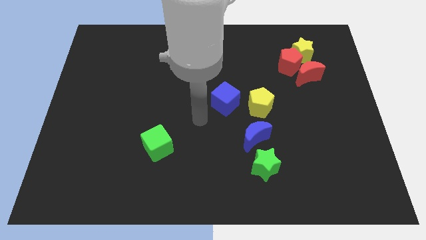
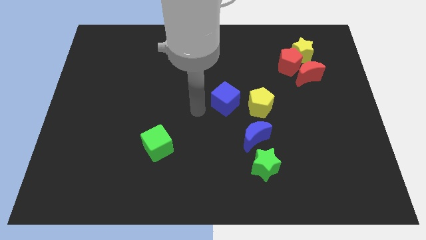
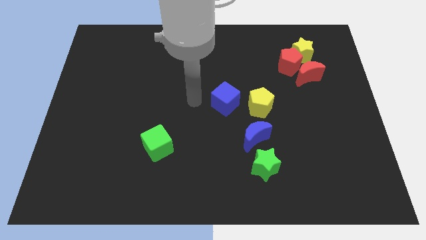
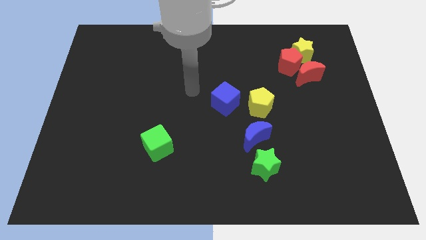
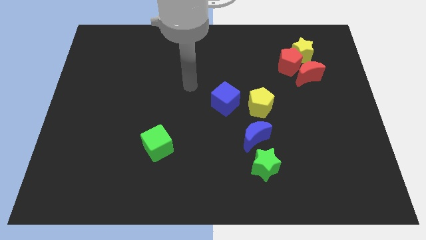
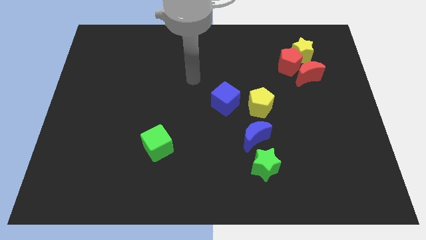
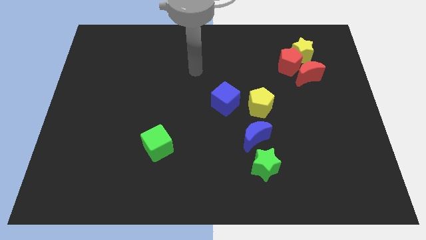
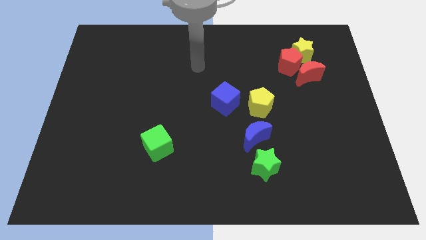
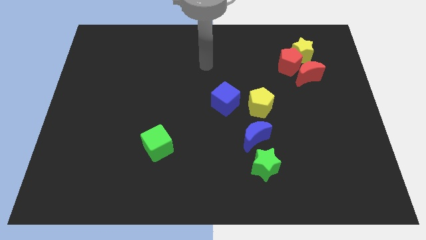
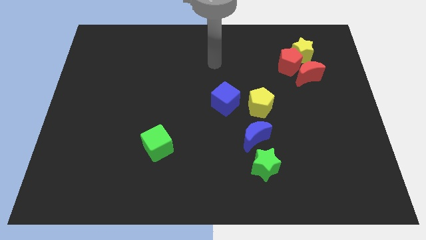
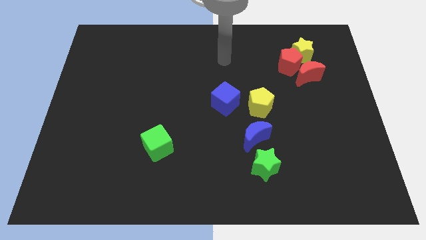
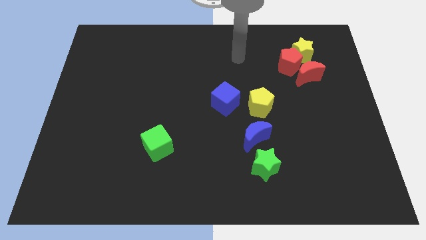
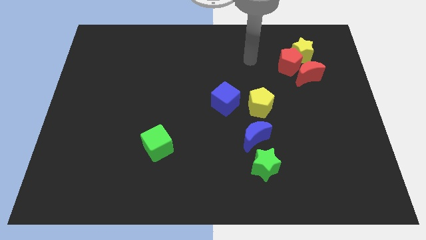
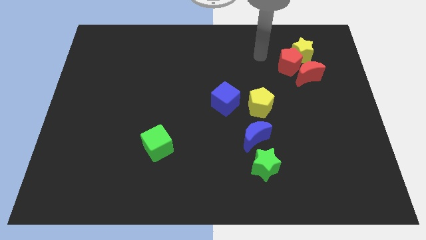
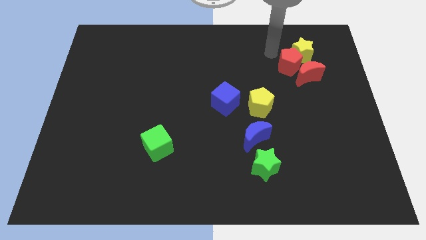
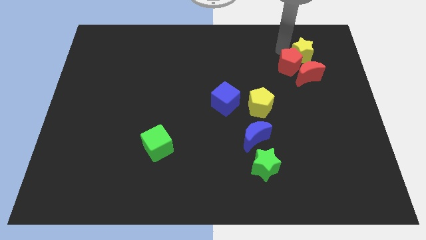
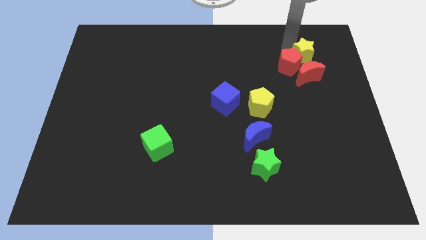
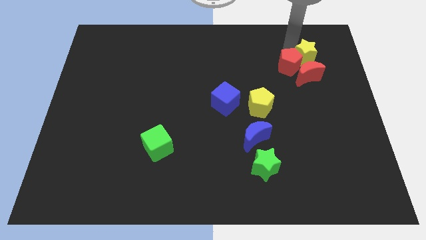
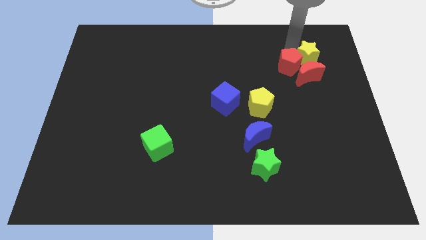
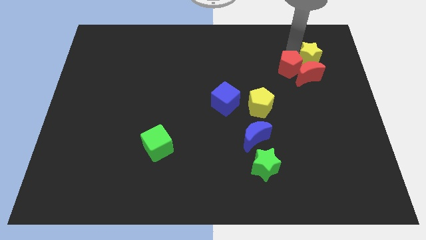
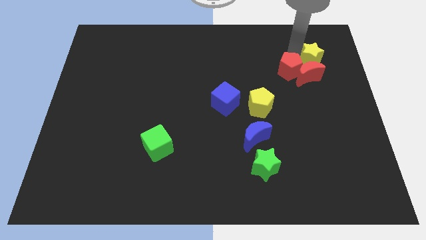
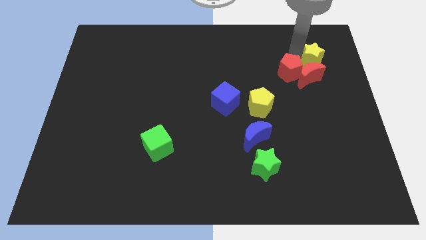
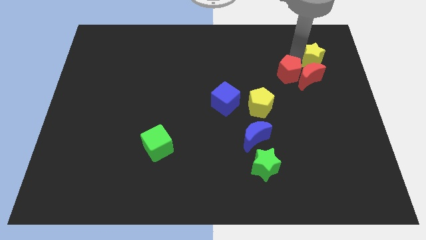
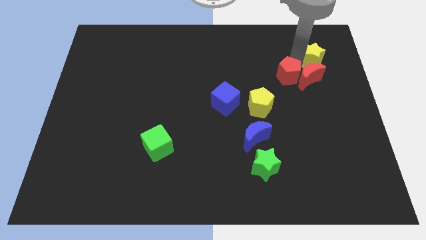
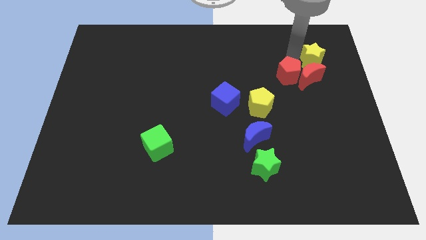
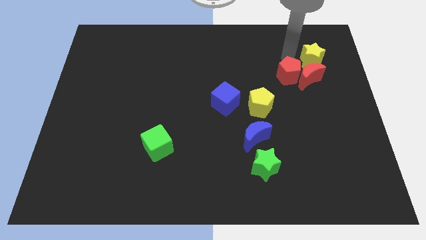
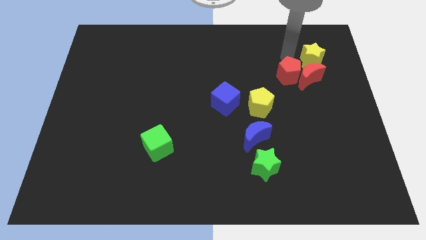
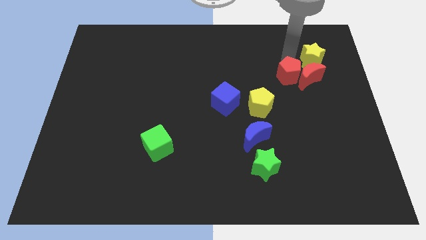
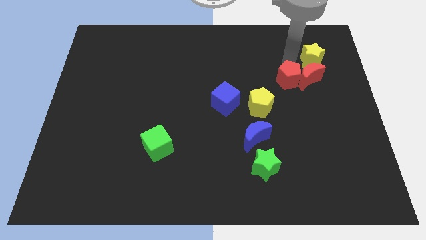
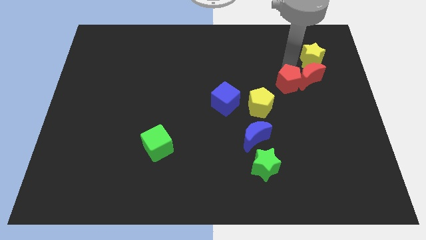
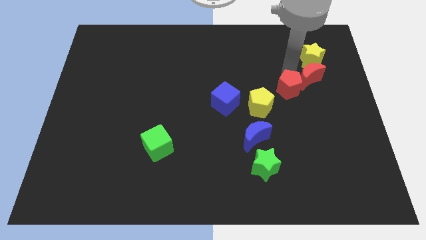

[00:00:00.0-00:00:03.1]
slightly push the red pentagon downwards

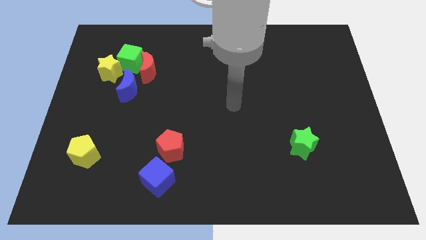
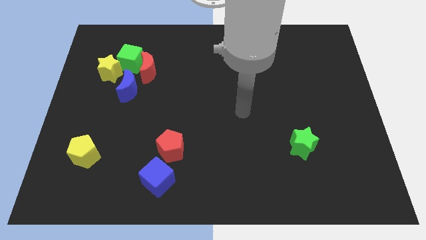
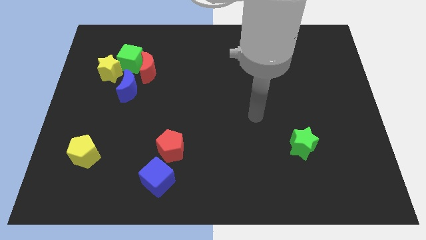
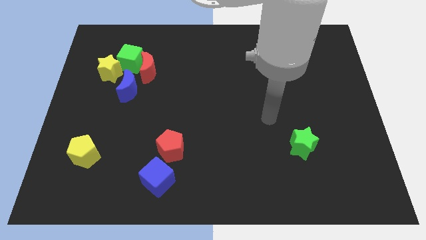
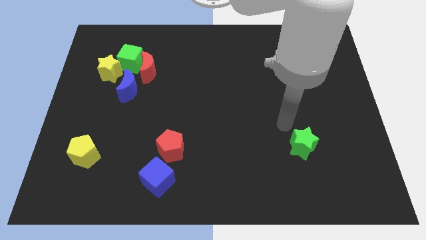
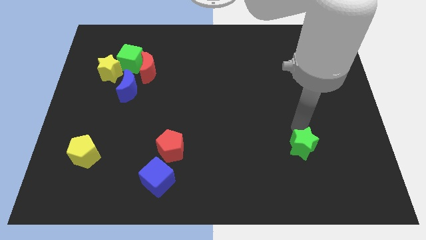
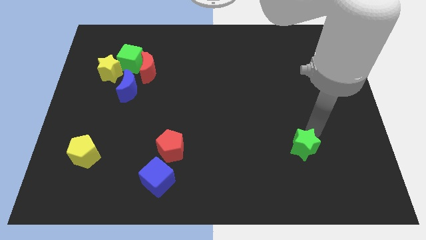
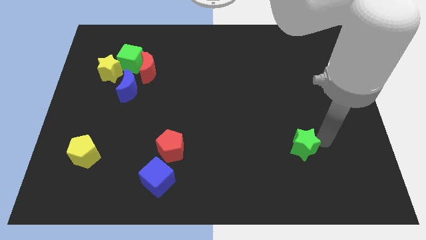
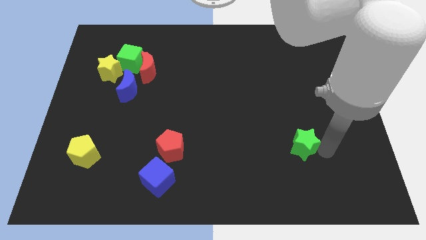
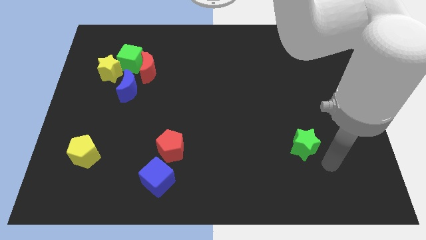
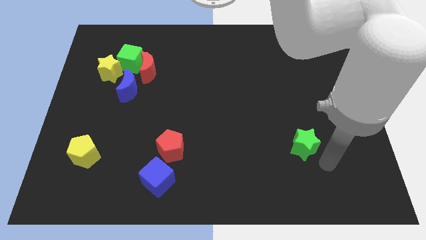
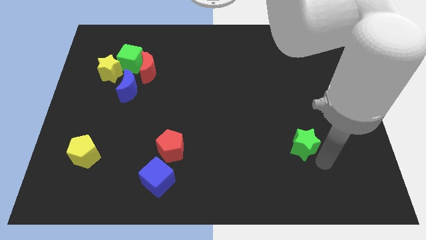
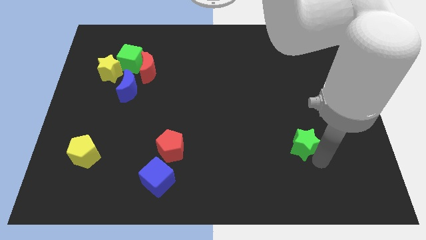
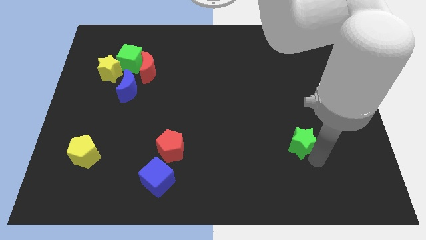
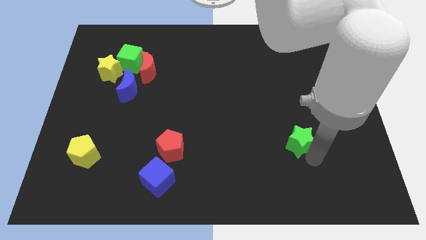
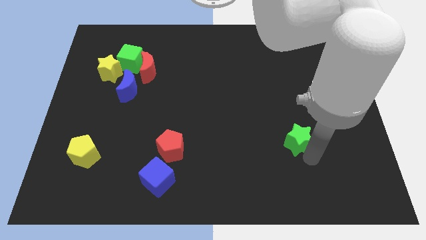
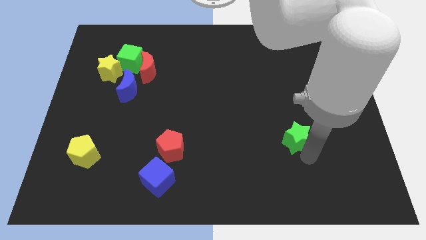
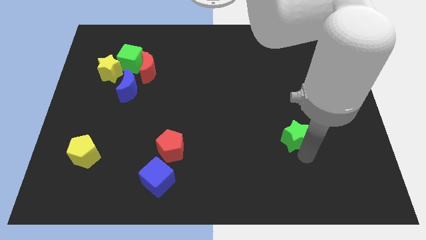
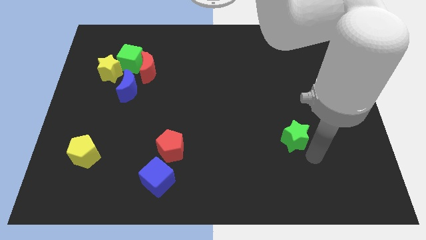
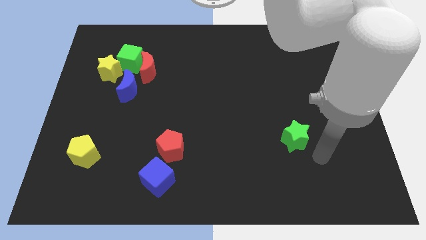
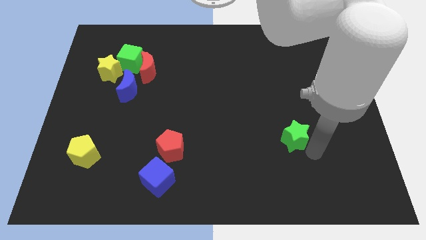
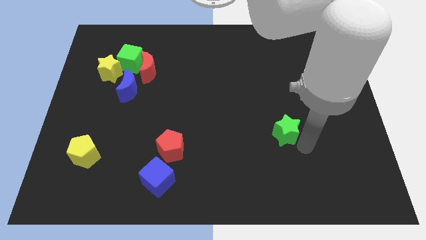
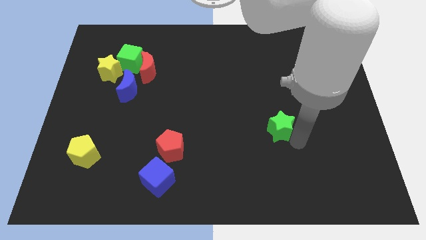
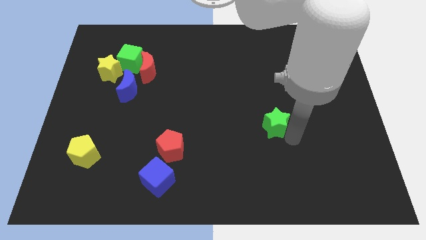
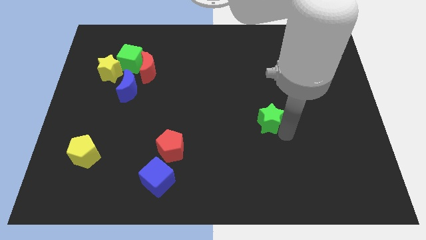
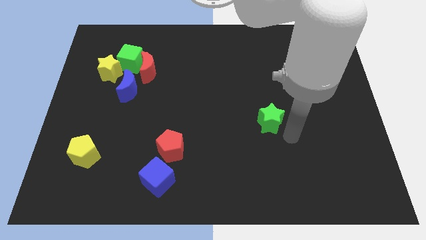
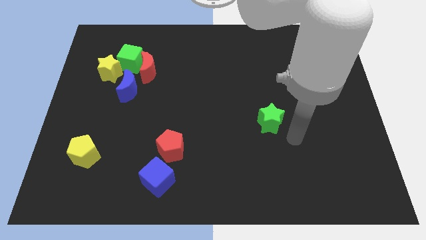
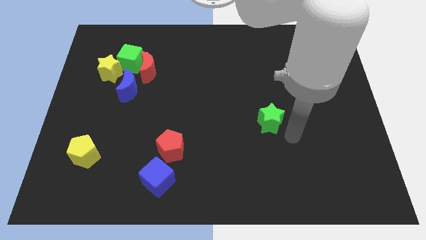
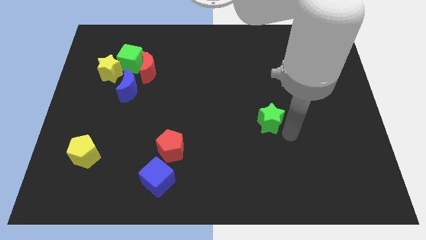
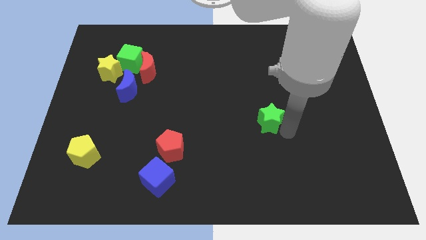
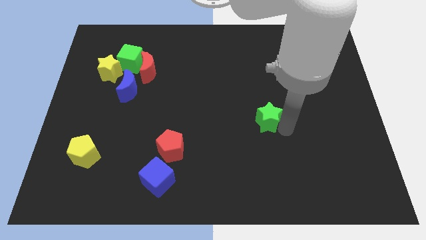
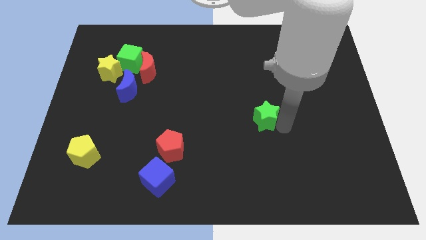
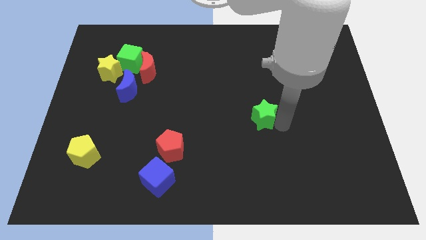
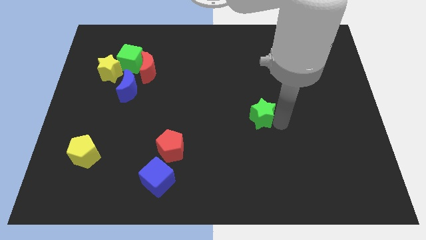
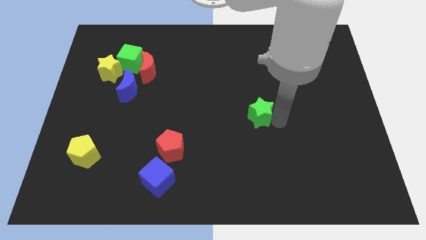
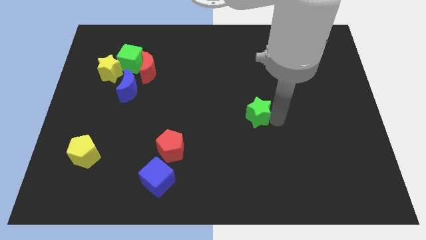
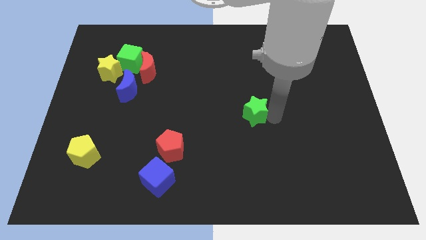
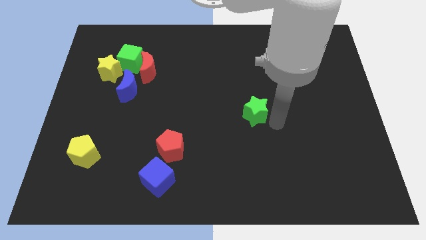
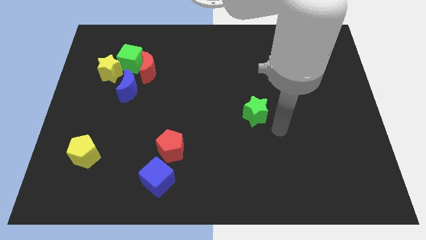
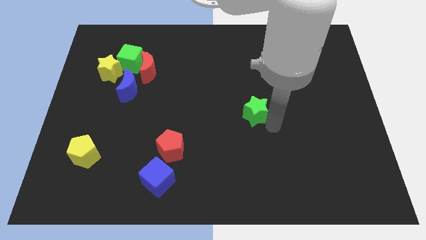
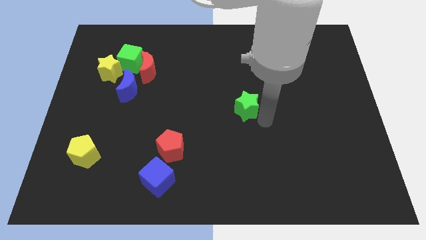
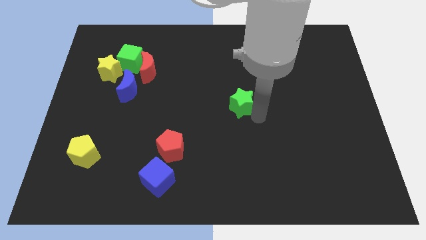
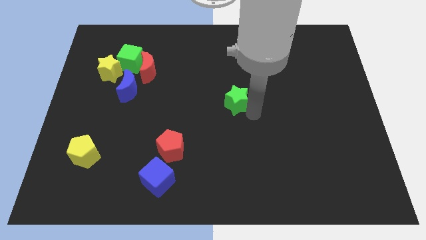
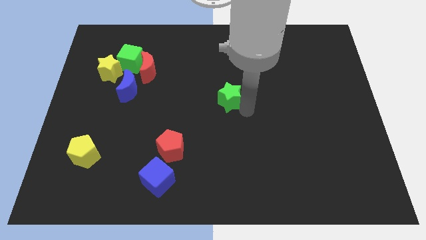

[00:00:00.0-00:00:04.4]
move the green star diagonally upwards and left

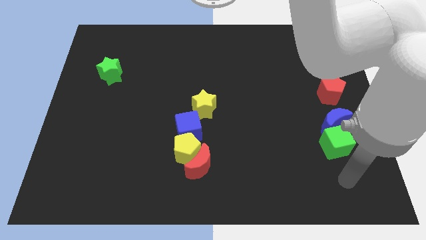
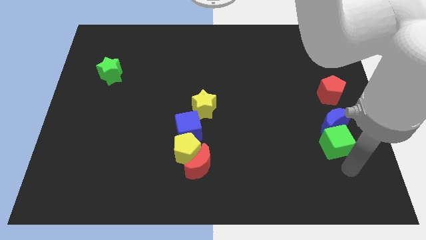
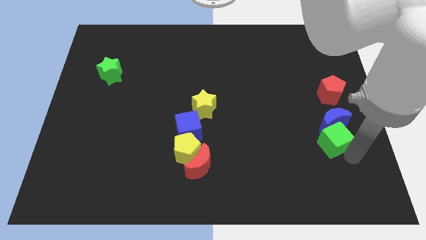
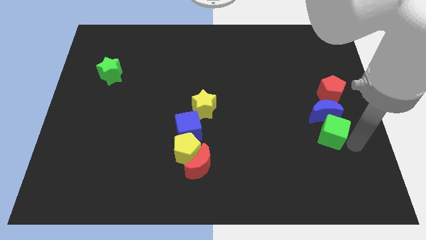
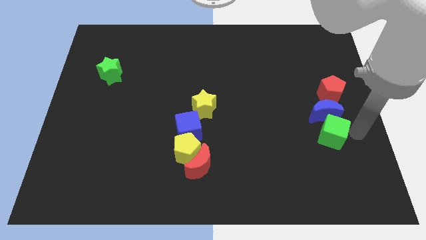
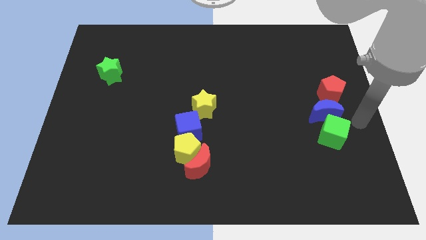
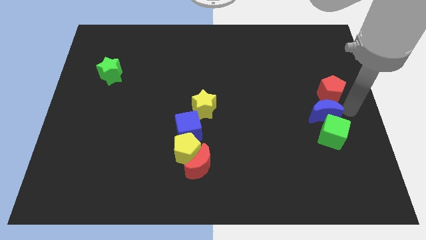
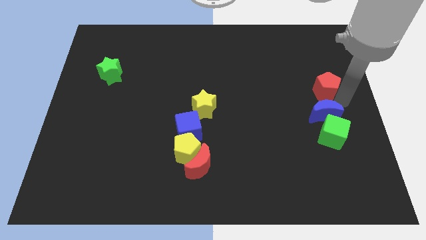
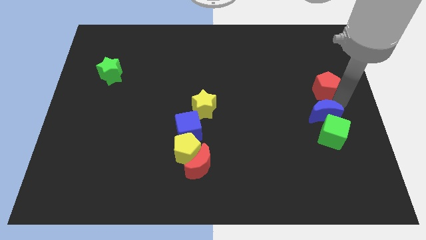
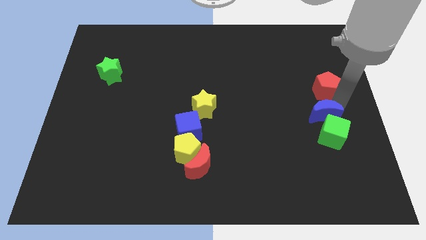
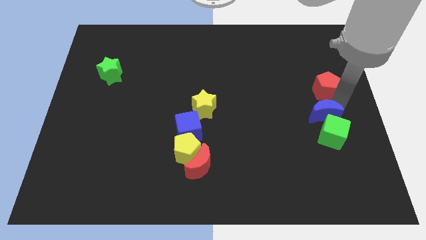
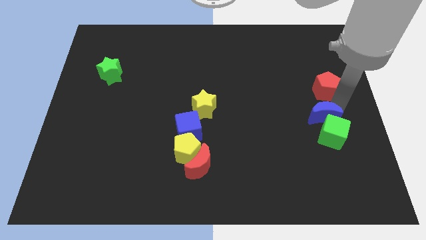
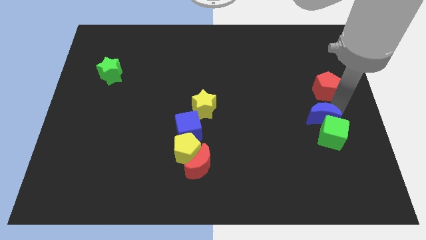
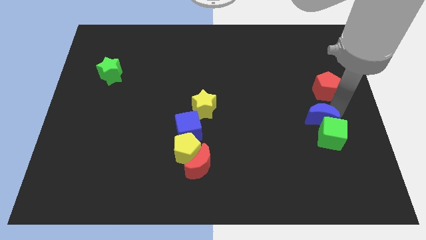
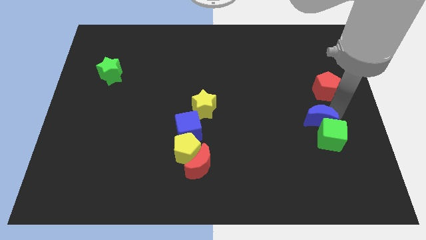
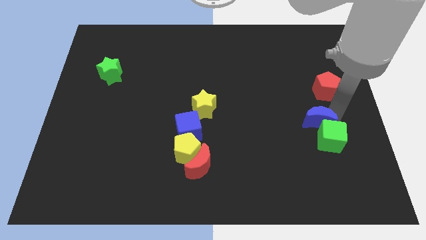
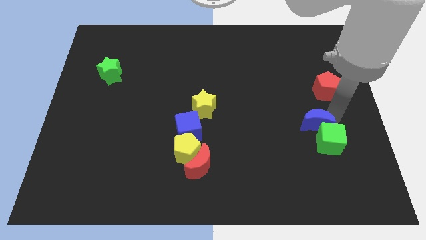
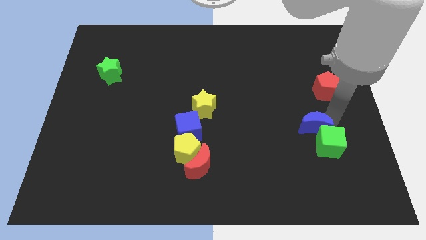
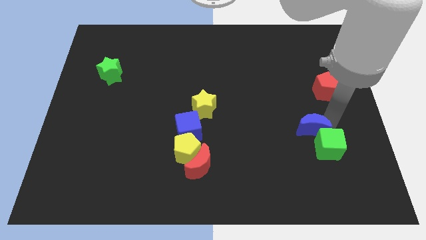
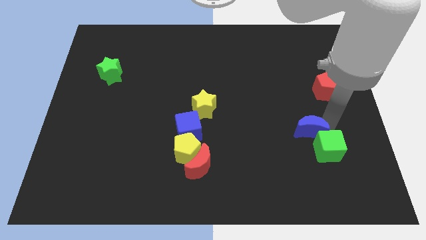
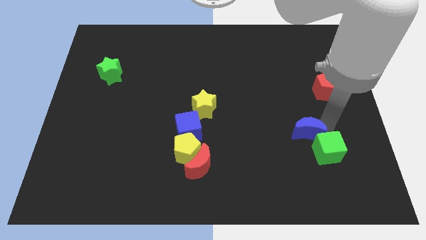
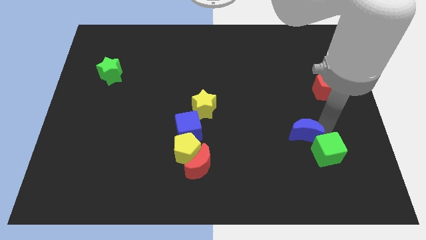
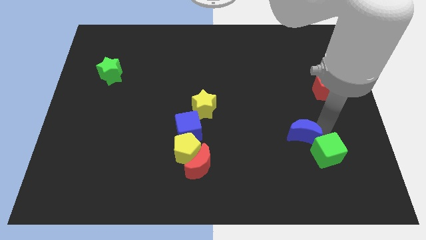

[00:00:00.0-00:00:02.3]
slightly move the blue moon to the left
